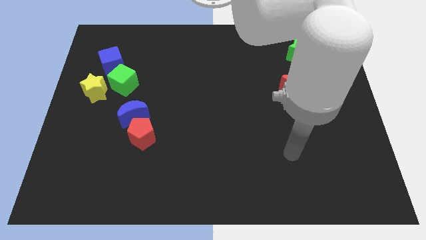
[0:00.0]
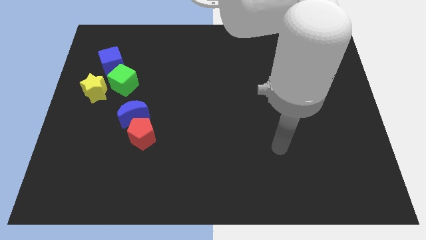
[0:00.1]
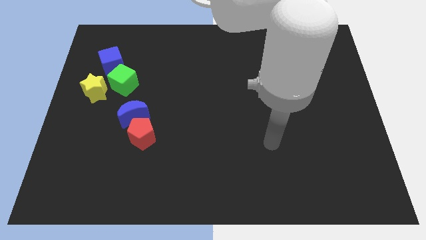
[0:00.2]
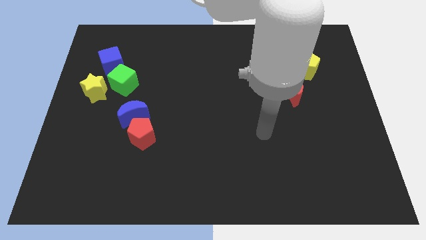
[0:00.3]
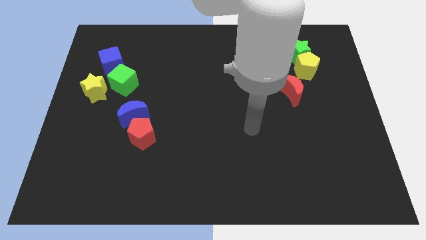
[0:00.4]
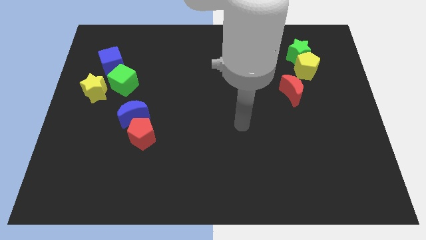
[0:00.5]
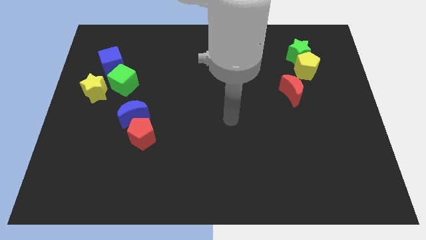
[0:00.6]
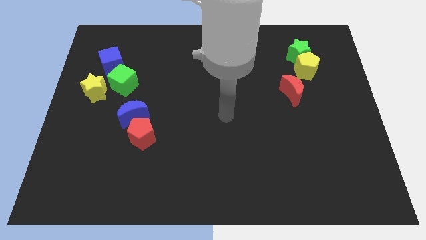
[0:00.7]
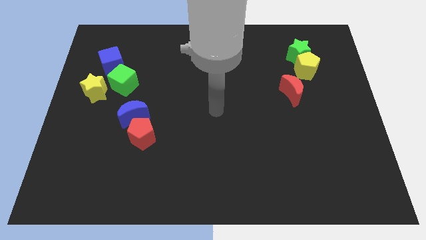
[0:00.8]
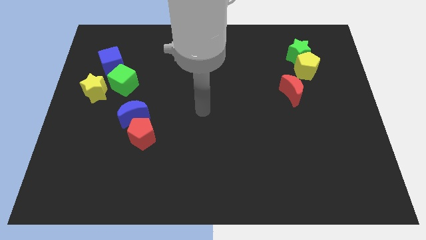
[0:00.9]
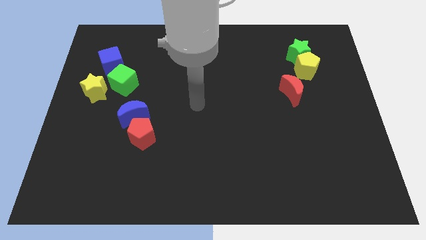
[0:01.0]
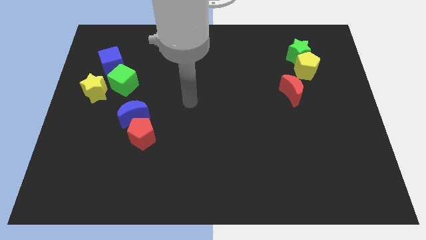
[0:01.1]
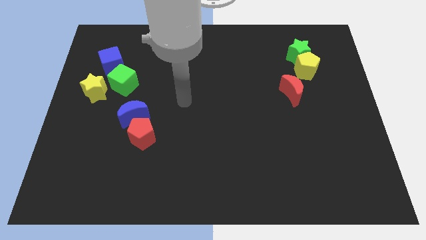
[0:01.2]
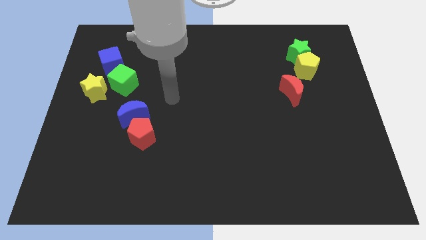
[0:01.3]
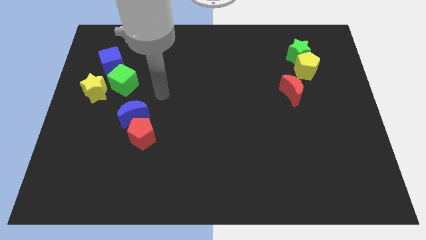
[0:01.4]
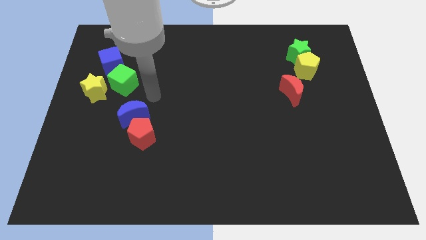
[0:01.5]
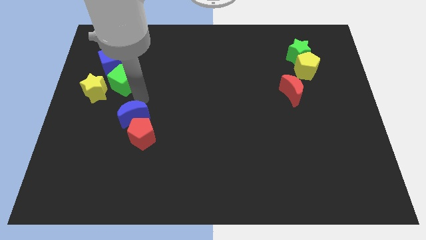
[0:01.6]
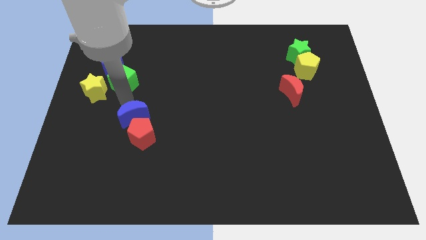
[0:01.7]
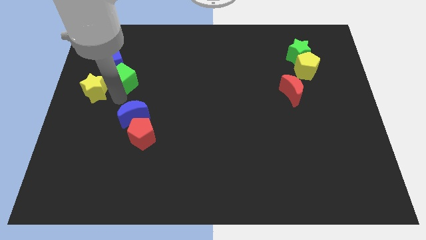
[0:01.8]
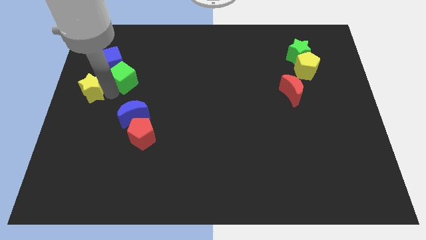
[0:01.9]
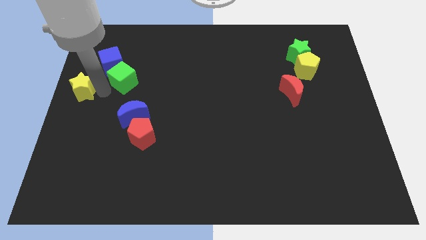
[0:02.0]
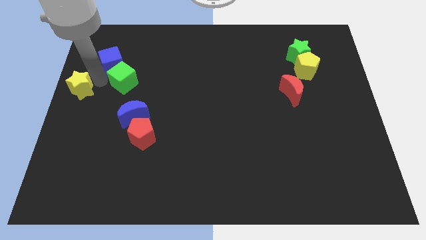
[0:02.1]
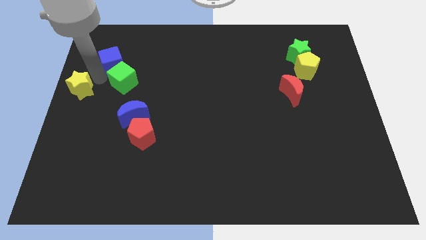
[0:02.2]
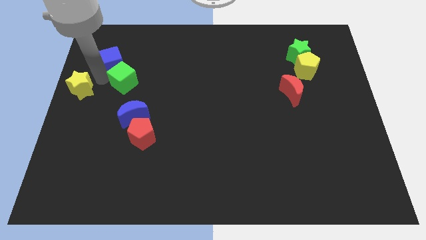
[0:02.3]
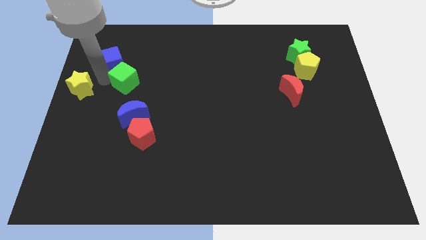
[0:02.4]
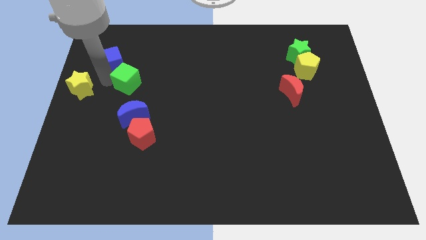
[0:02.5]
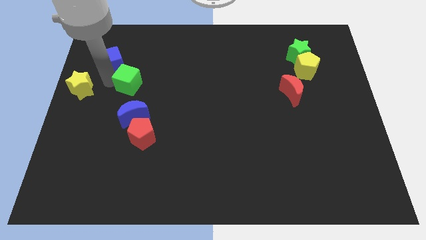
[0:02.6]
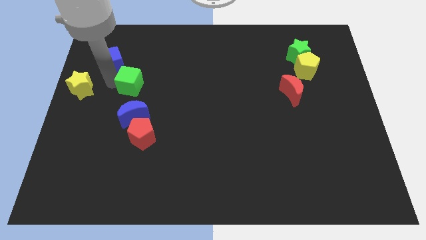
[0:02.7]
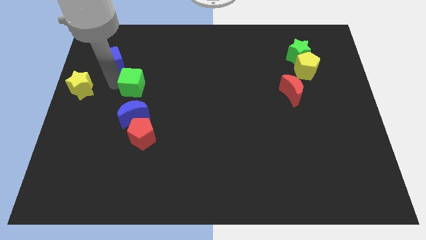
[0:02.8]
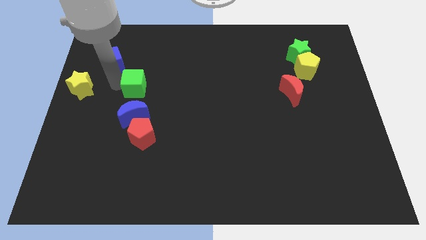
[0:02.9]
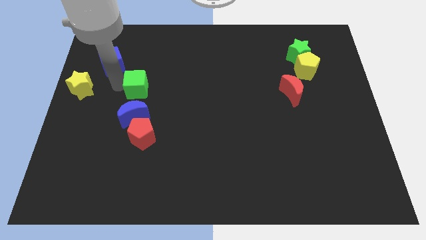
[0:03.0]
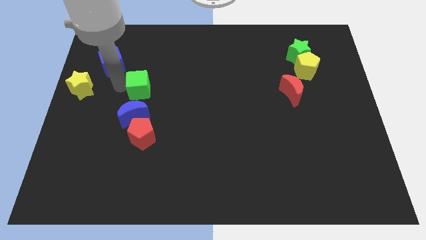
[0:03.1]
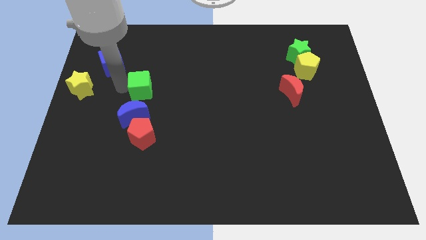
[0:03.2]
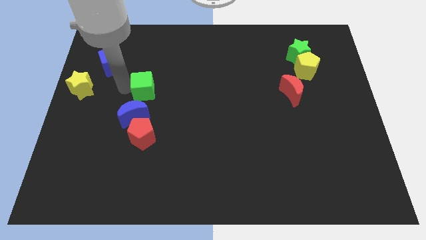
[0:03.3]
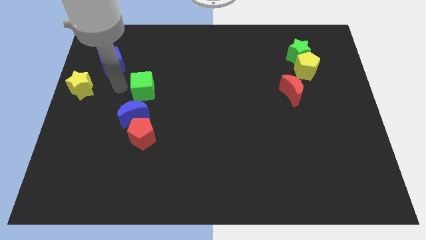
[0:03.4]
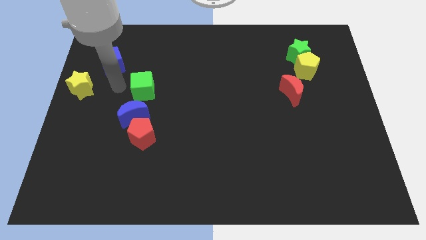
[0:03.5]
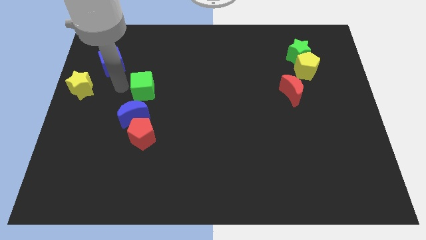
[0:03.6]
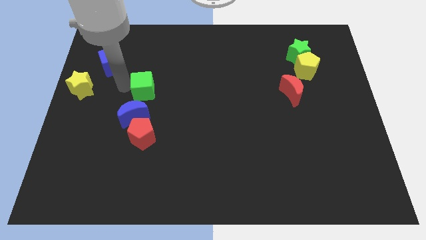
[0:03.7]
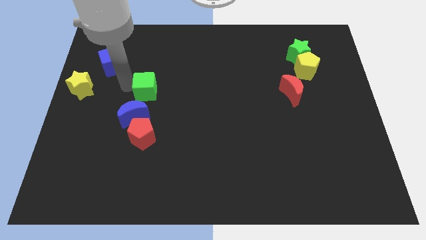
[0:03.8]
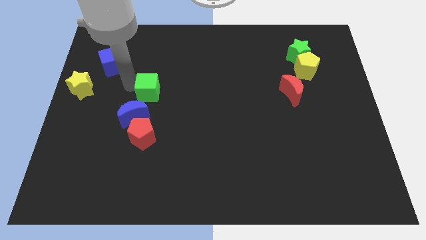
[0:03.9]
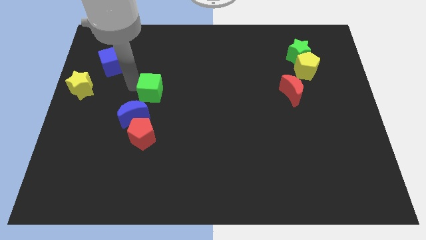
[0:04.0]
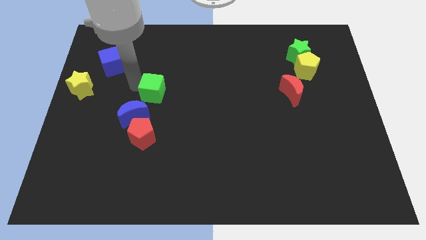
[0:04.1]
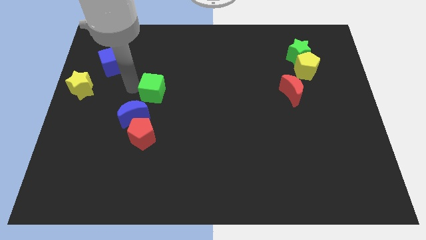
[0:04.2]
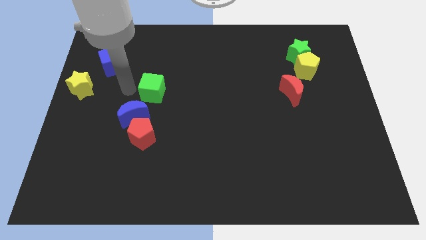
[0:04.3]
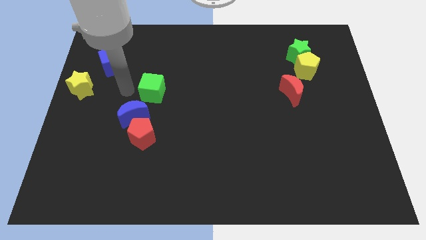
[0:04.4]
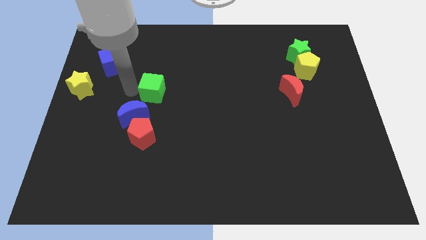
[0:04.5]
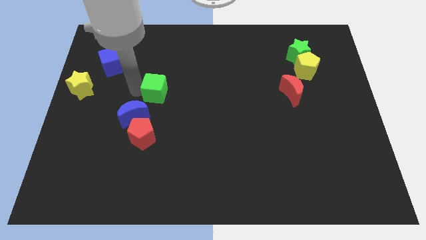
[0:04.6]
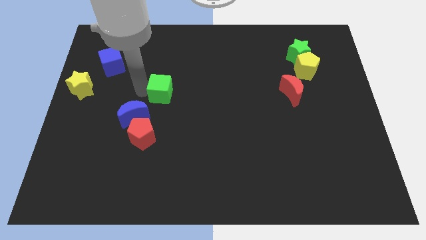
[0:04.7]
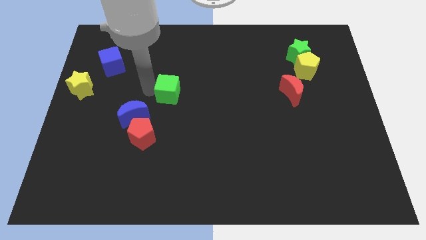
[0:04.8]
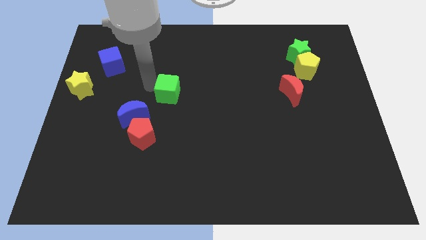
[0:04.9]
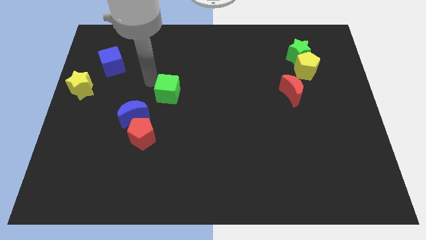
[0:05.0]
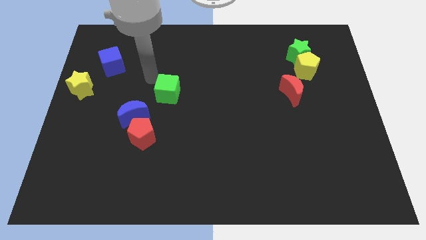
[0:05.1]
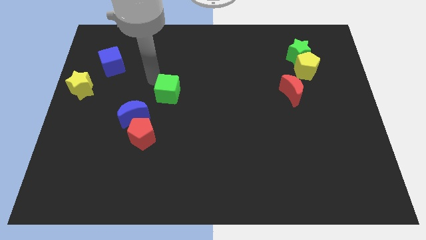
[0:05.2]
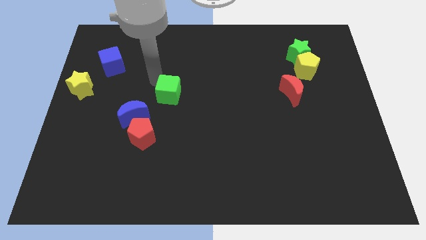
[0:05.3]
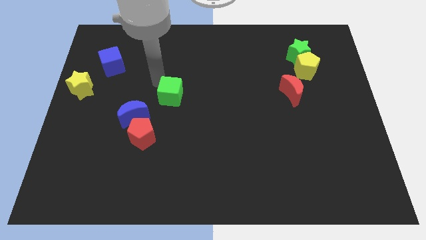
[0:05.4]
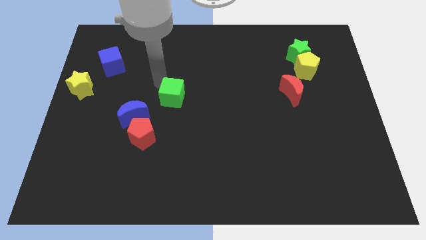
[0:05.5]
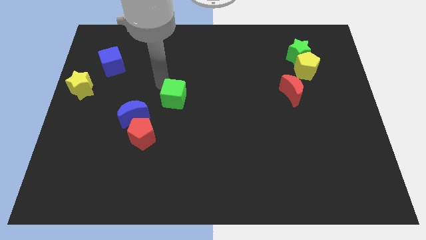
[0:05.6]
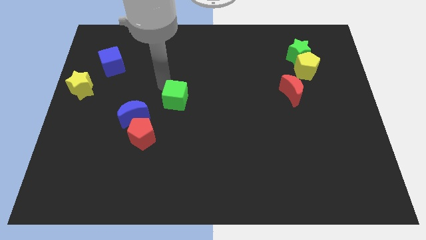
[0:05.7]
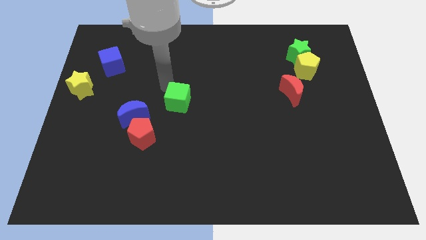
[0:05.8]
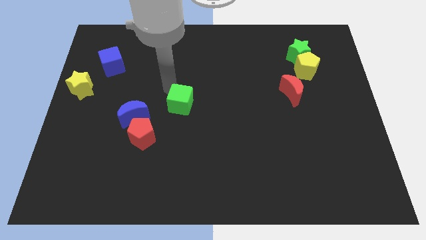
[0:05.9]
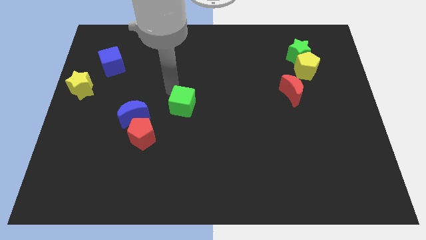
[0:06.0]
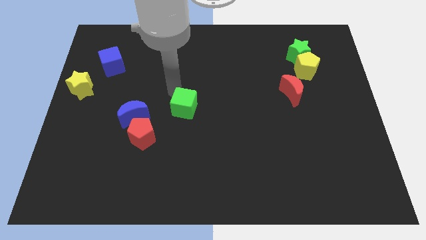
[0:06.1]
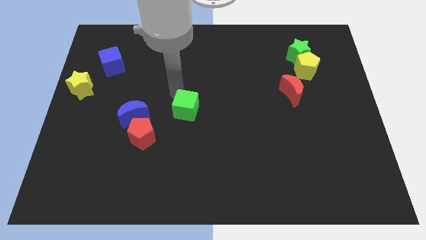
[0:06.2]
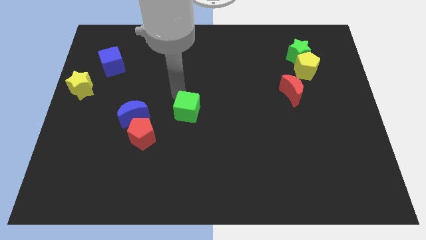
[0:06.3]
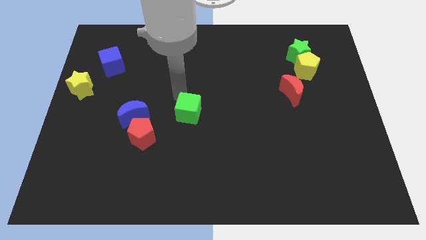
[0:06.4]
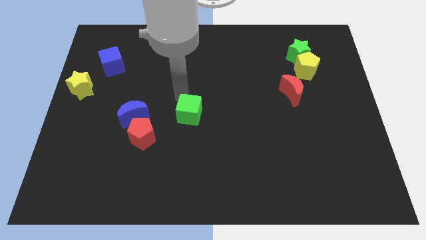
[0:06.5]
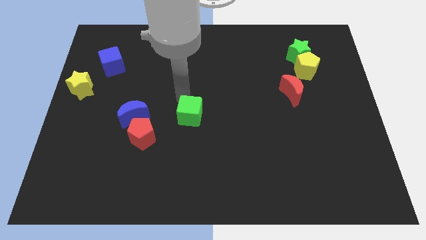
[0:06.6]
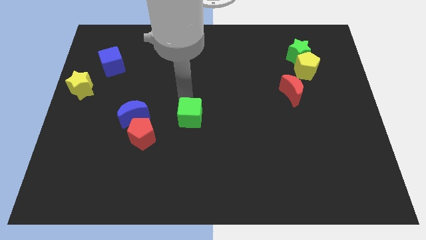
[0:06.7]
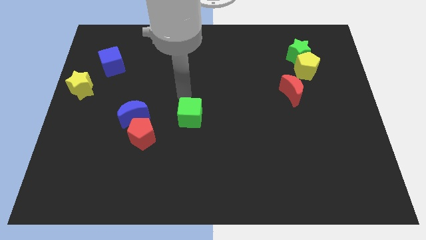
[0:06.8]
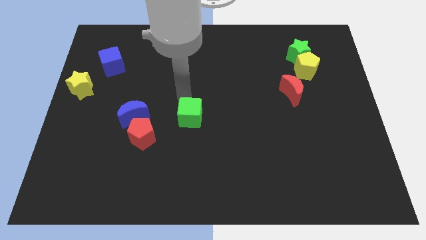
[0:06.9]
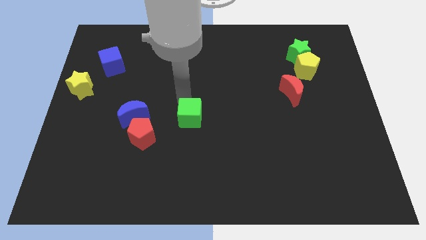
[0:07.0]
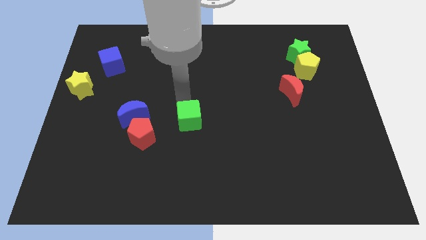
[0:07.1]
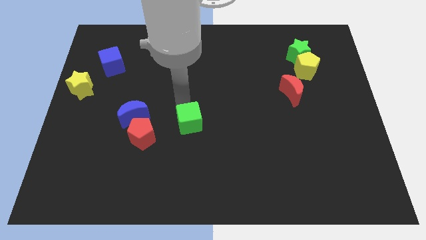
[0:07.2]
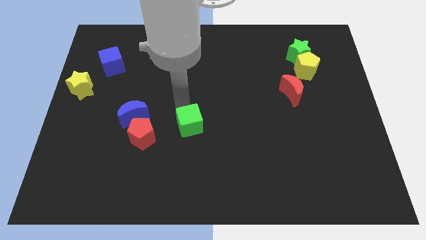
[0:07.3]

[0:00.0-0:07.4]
move the green cube down and to the right diagonally

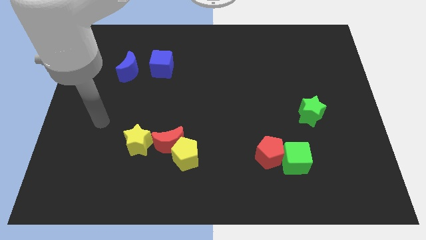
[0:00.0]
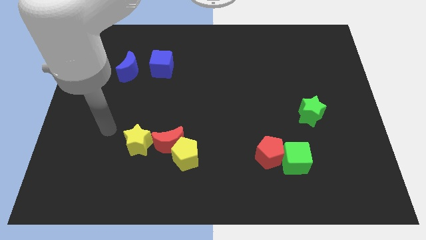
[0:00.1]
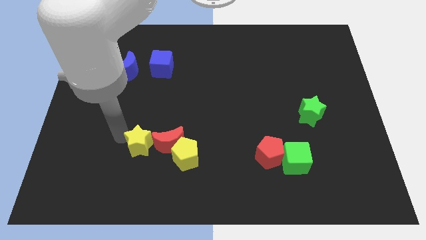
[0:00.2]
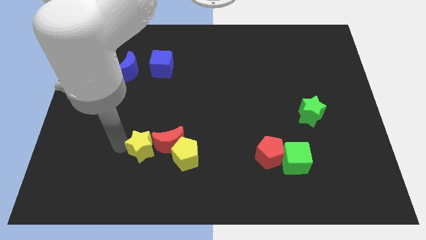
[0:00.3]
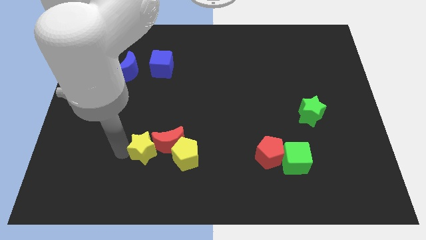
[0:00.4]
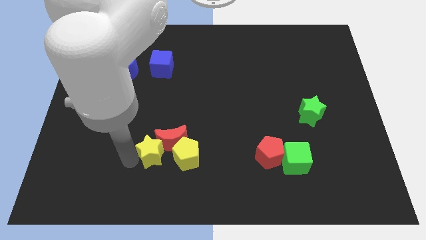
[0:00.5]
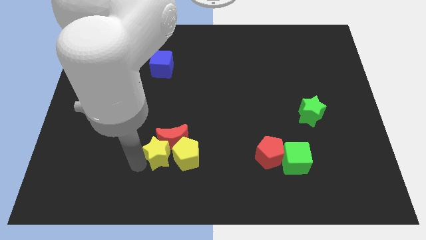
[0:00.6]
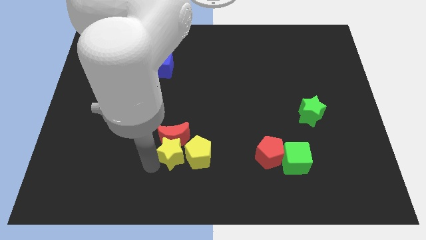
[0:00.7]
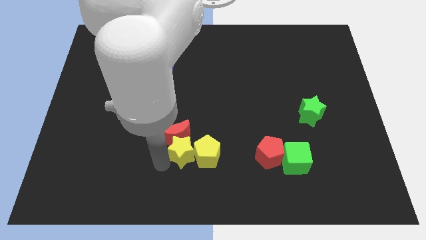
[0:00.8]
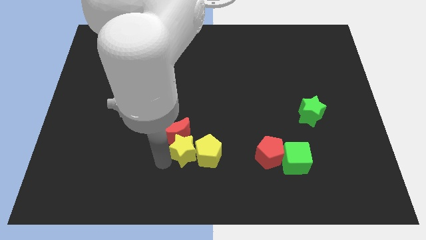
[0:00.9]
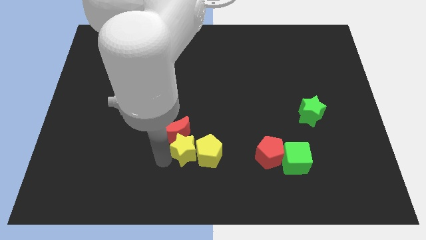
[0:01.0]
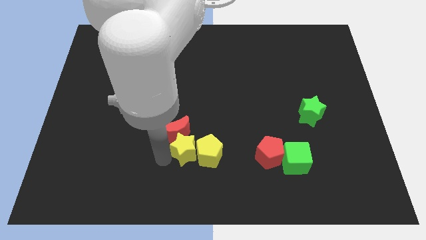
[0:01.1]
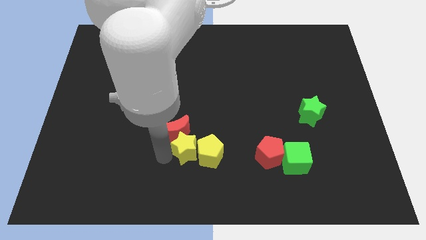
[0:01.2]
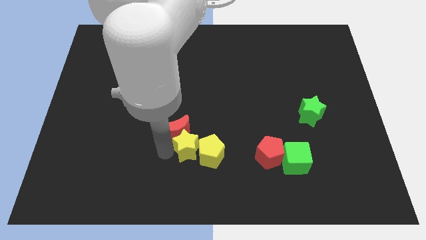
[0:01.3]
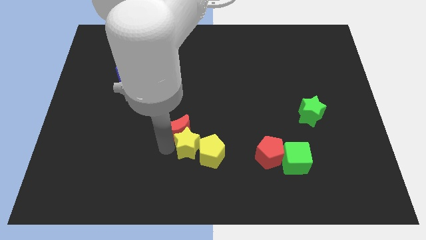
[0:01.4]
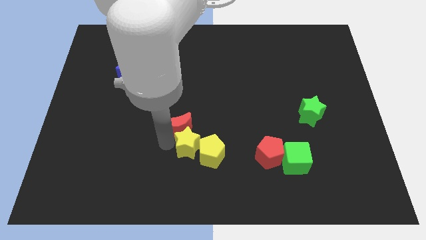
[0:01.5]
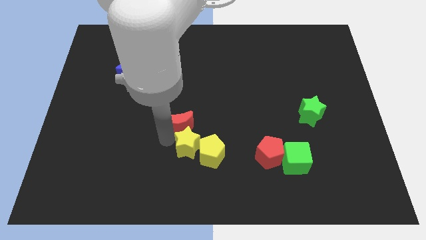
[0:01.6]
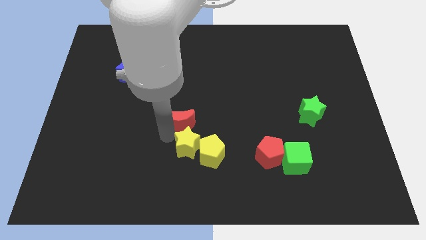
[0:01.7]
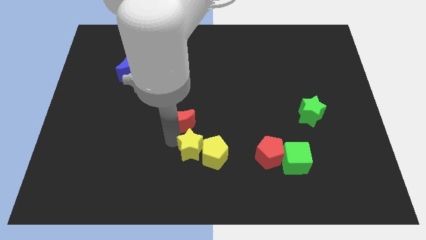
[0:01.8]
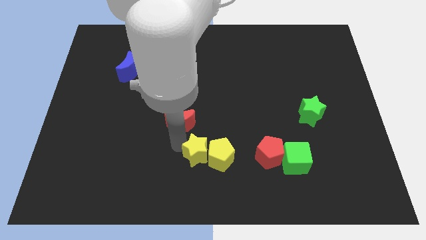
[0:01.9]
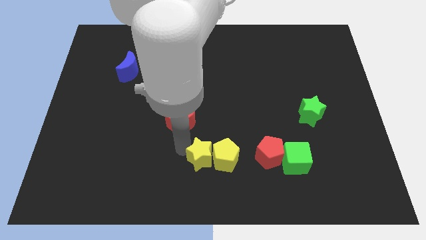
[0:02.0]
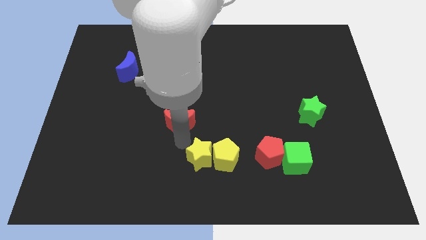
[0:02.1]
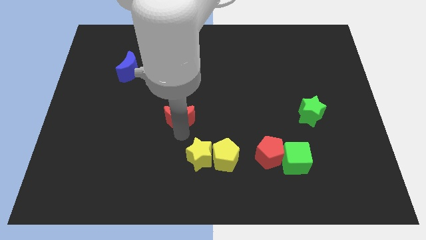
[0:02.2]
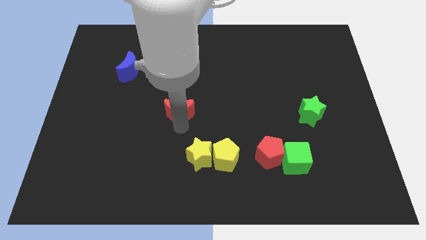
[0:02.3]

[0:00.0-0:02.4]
move the red moon up slightly
